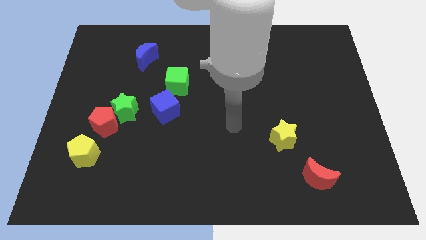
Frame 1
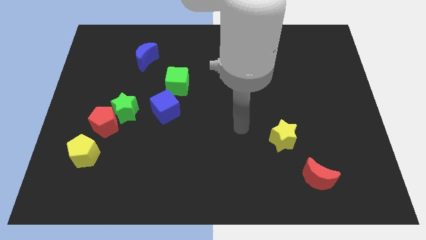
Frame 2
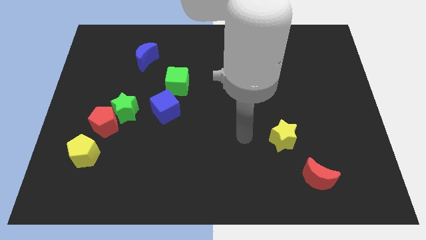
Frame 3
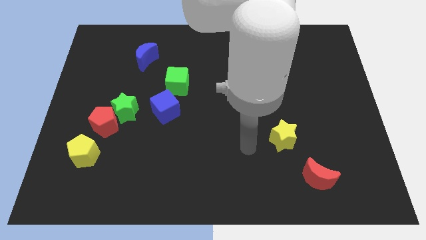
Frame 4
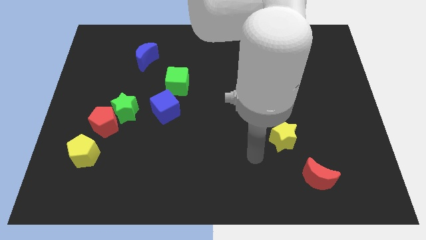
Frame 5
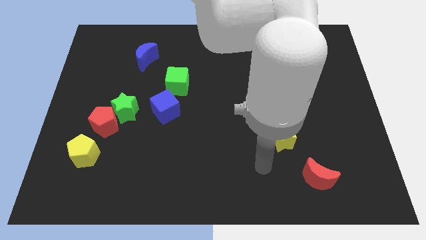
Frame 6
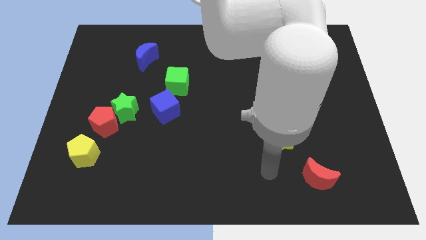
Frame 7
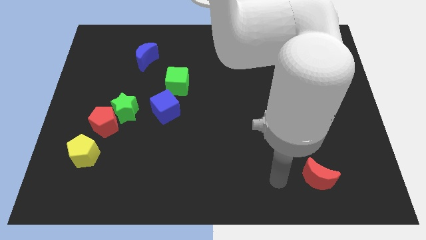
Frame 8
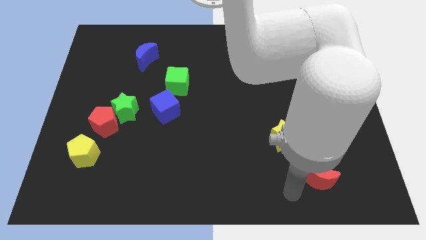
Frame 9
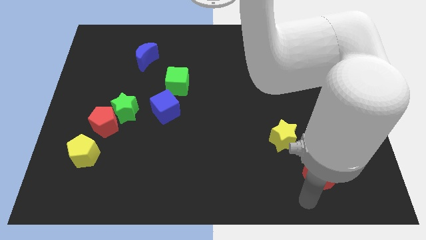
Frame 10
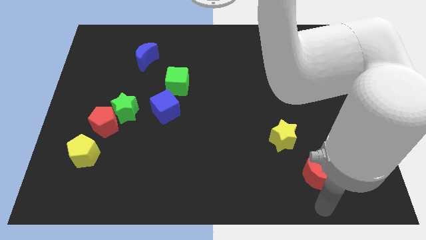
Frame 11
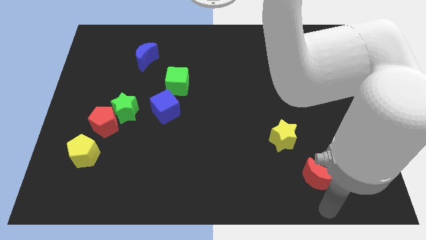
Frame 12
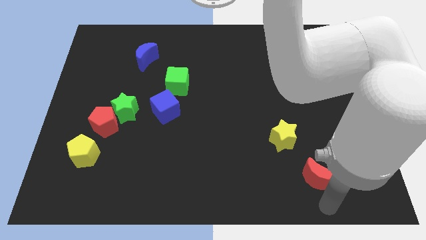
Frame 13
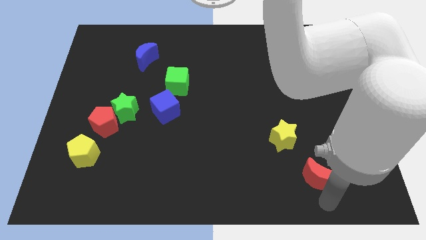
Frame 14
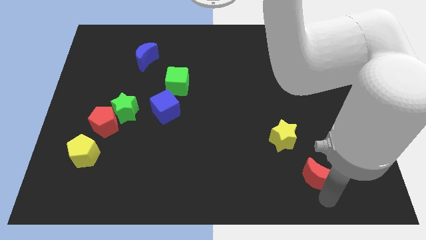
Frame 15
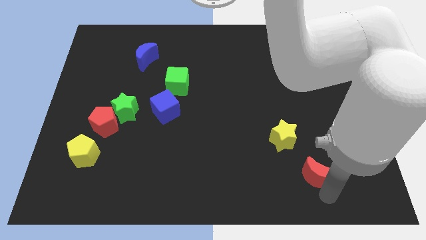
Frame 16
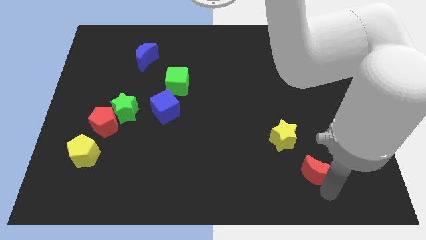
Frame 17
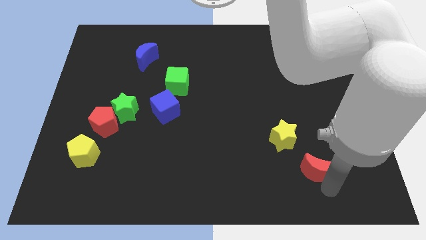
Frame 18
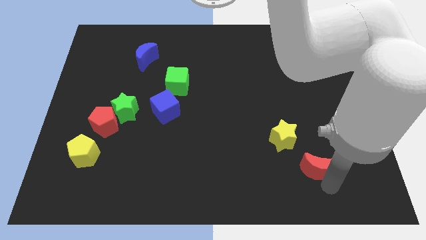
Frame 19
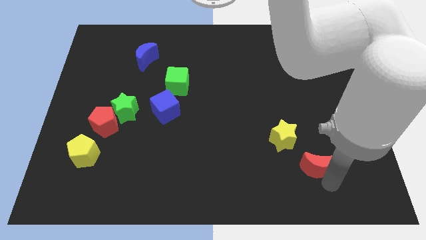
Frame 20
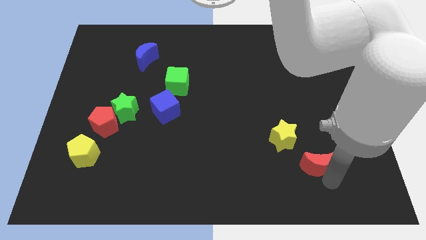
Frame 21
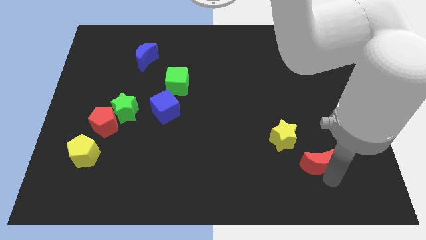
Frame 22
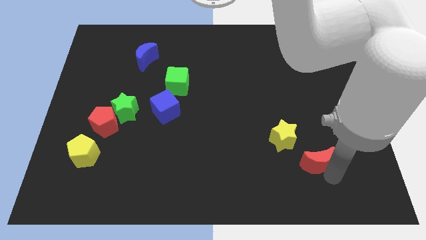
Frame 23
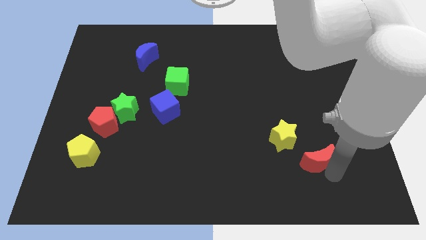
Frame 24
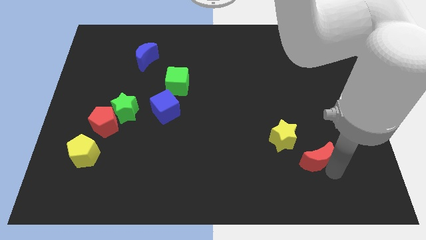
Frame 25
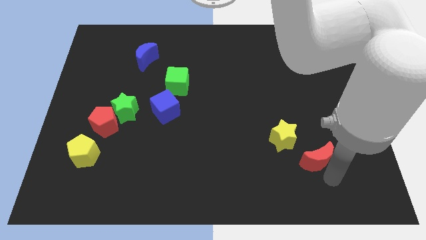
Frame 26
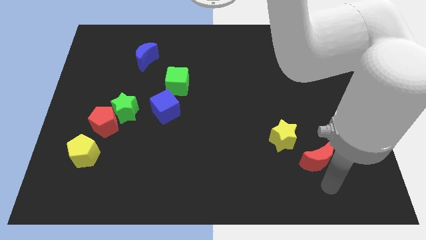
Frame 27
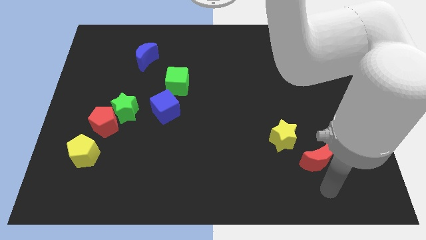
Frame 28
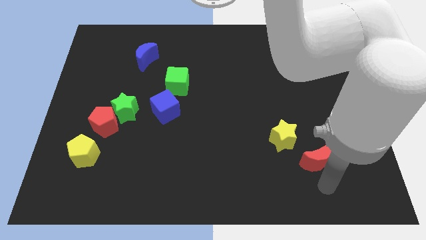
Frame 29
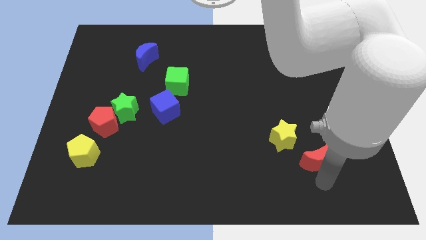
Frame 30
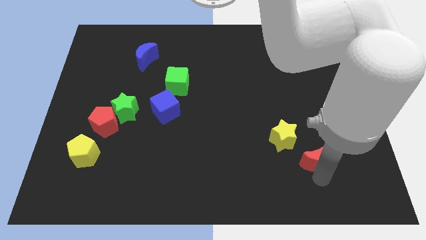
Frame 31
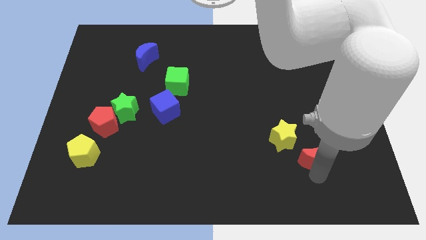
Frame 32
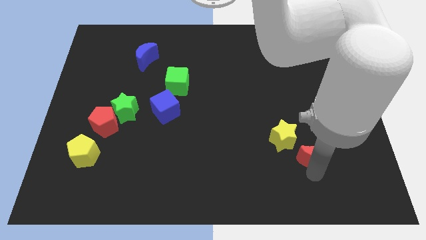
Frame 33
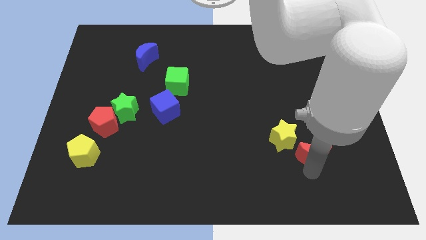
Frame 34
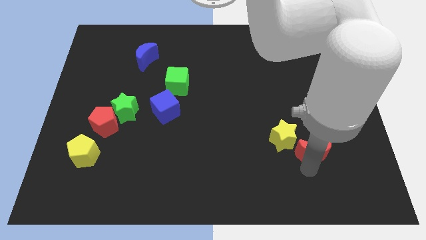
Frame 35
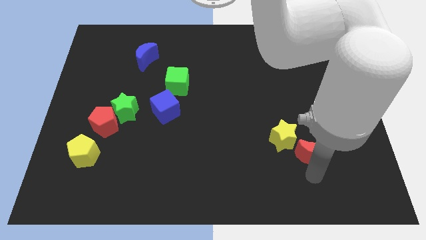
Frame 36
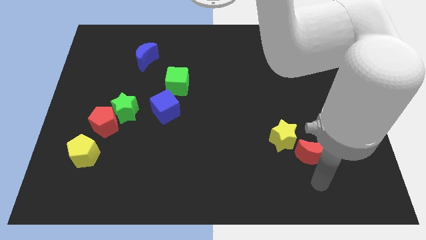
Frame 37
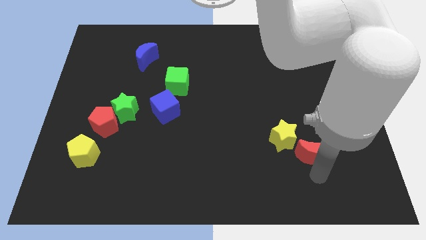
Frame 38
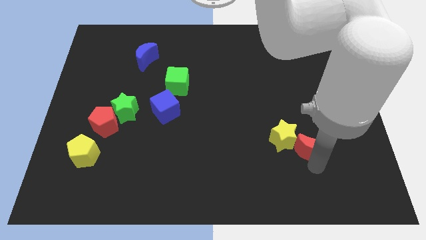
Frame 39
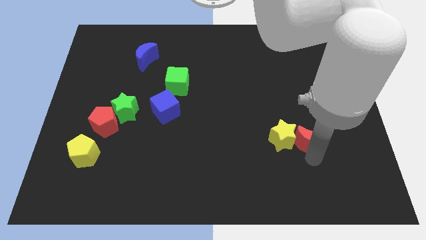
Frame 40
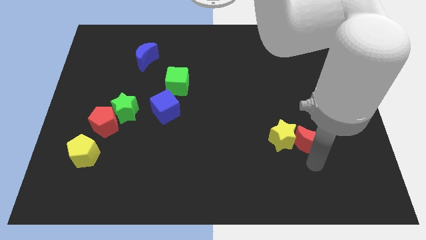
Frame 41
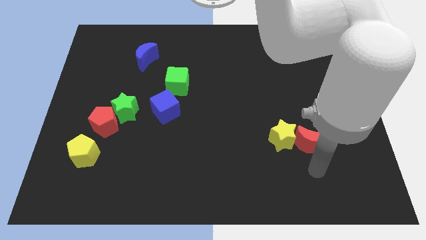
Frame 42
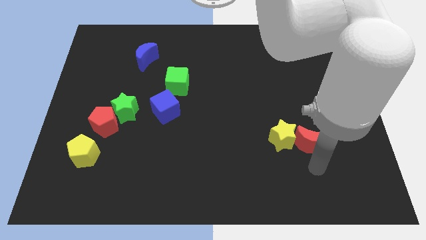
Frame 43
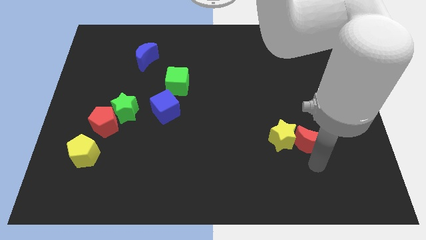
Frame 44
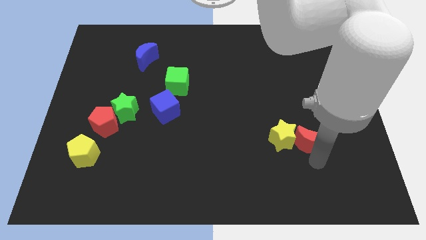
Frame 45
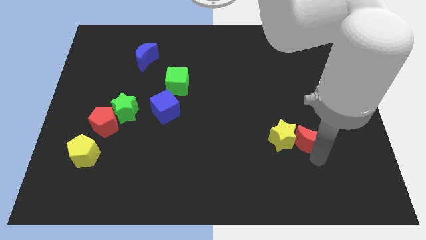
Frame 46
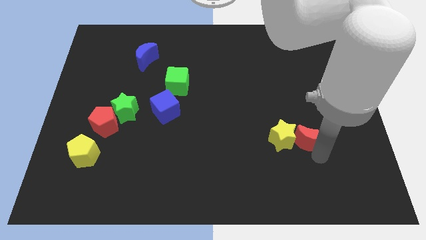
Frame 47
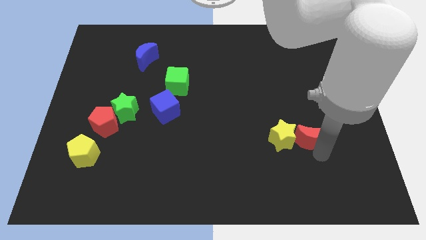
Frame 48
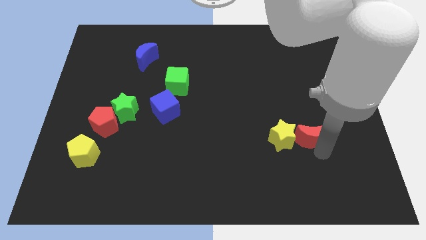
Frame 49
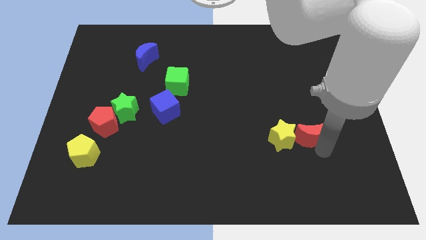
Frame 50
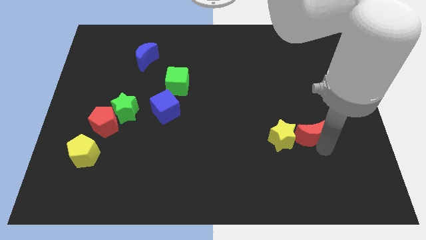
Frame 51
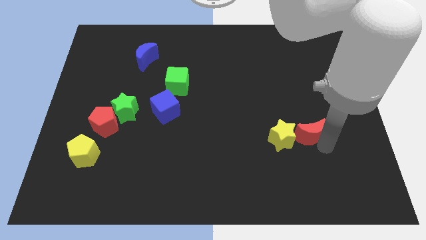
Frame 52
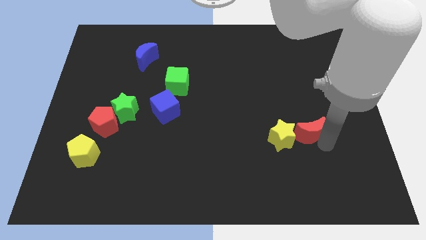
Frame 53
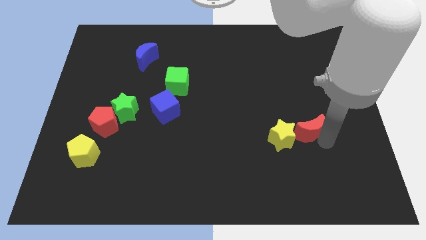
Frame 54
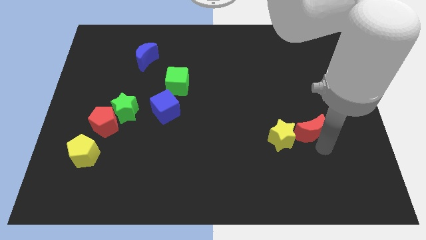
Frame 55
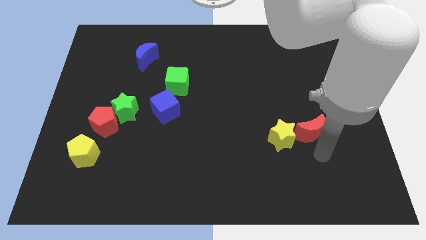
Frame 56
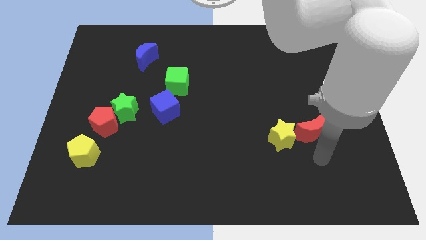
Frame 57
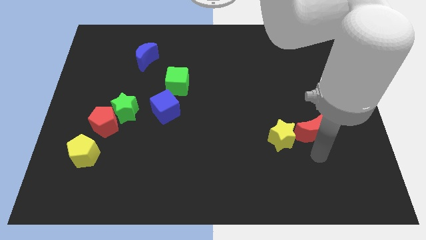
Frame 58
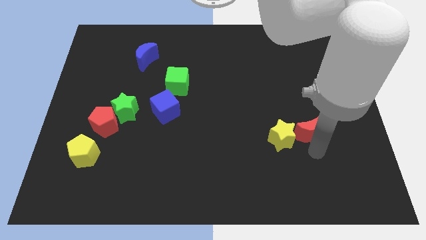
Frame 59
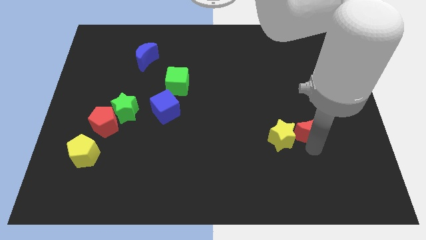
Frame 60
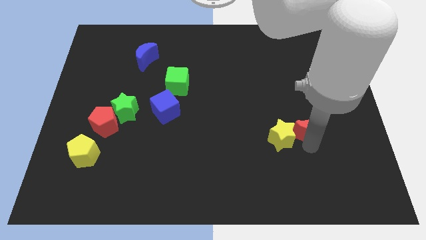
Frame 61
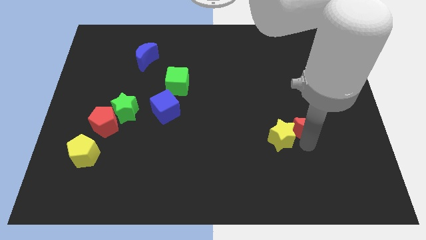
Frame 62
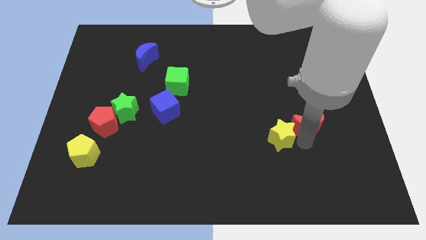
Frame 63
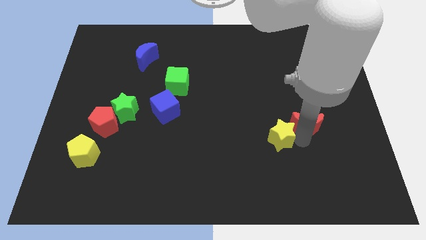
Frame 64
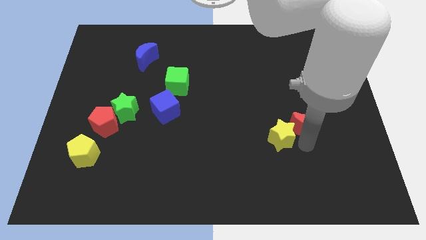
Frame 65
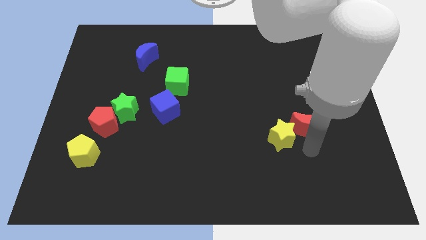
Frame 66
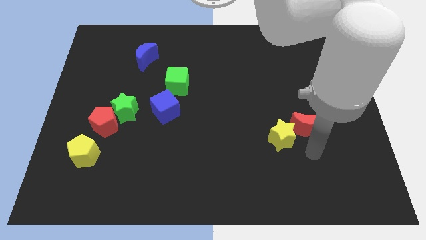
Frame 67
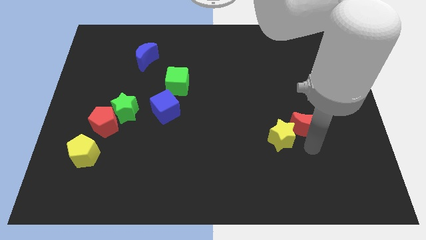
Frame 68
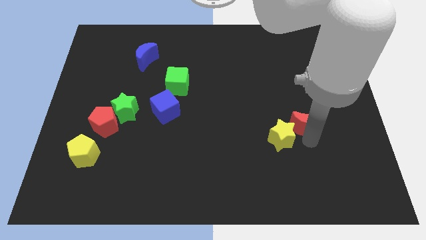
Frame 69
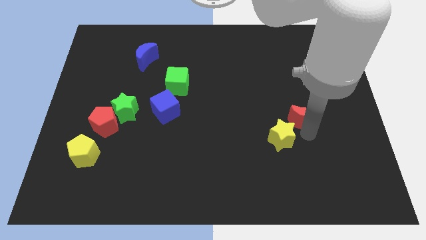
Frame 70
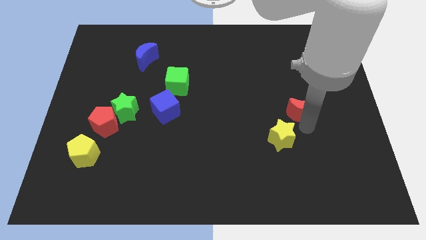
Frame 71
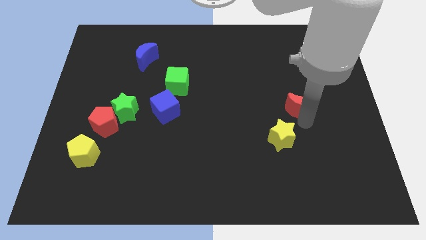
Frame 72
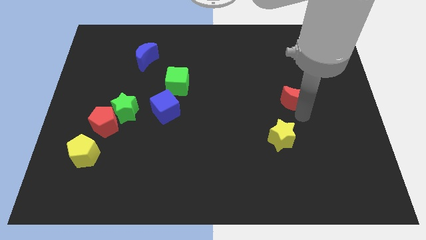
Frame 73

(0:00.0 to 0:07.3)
move the red moon up

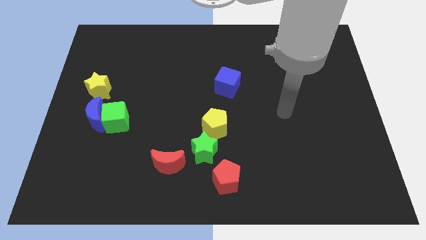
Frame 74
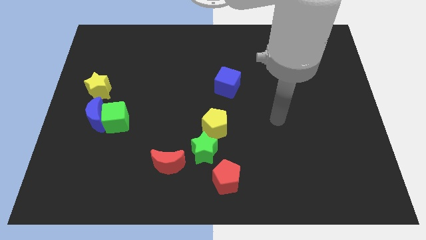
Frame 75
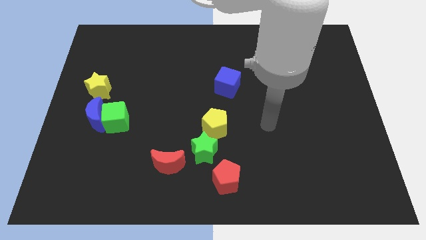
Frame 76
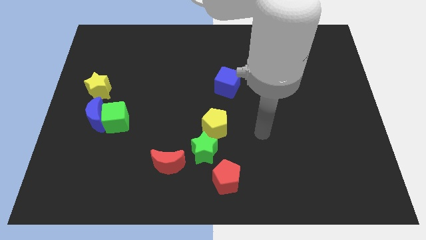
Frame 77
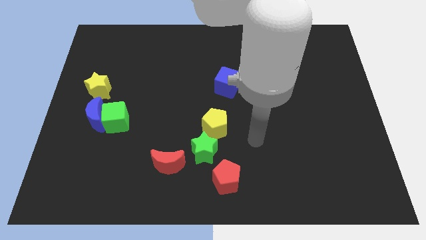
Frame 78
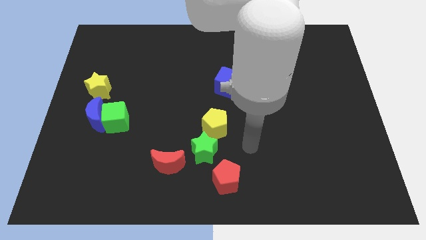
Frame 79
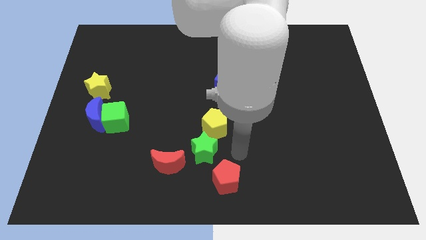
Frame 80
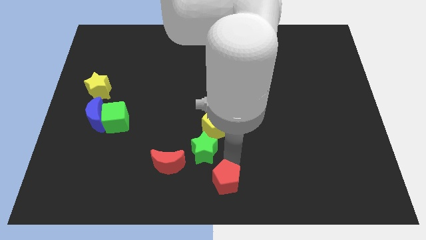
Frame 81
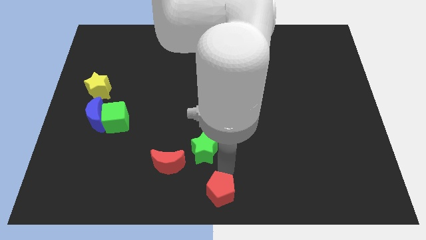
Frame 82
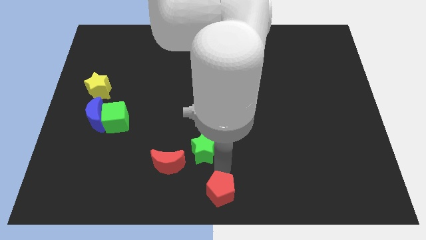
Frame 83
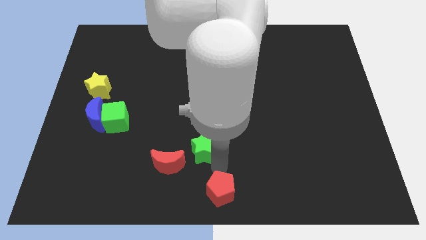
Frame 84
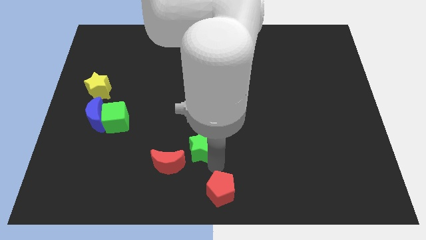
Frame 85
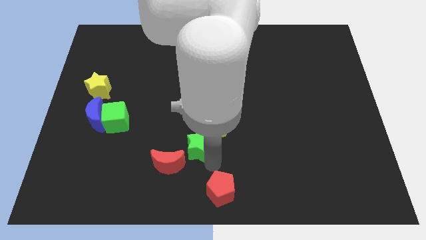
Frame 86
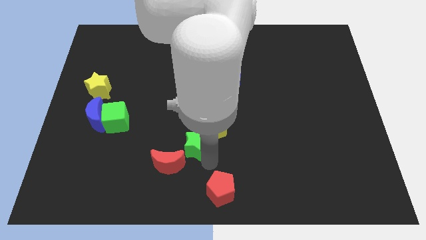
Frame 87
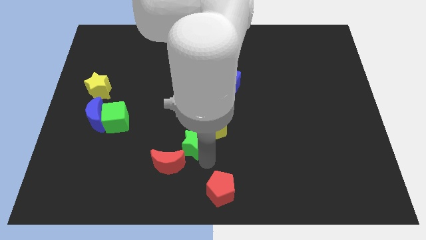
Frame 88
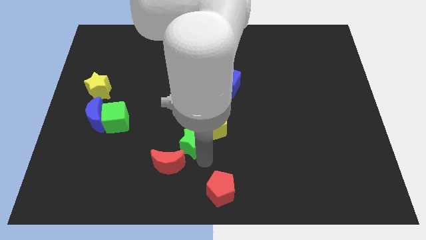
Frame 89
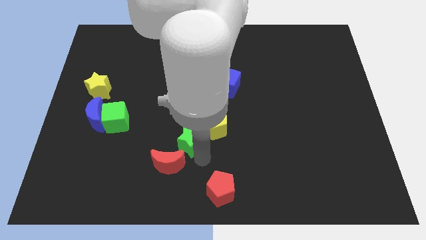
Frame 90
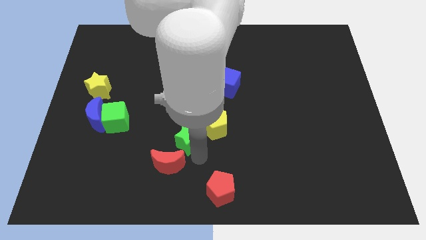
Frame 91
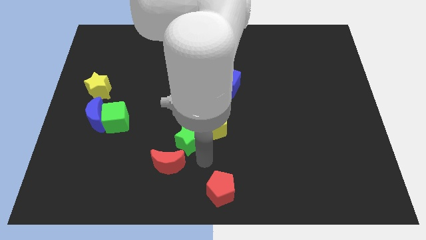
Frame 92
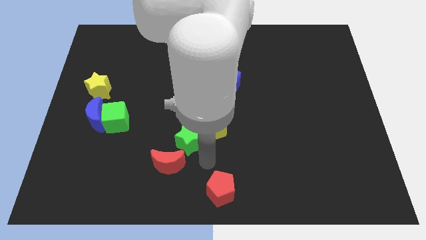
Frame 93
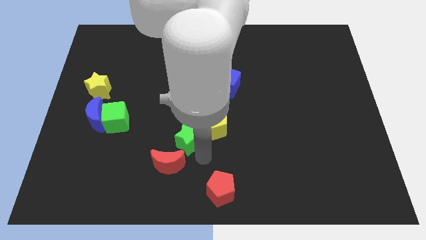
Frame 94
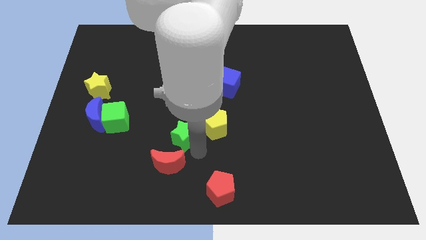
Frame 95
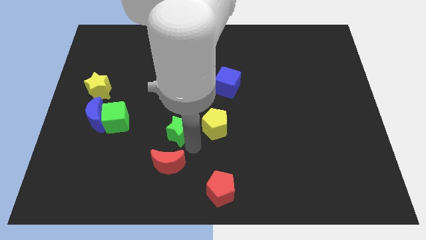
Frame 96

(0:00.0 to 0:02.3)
slightly move the green star up and then left
